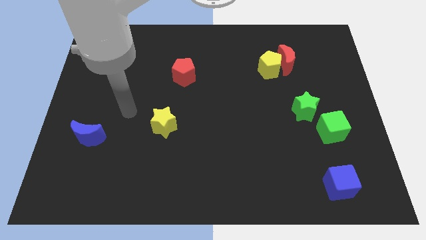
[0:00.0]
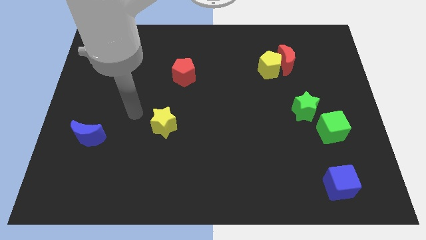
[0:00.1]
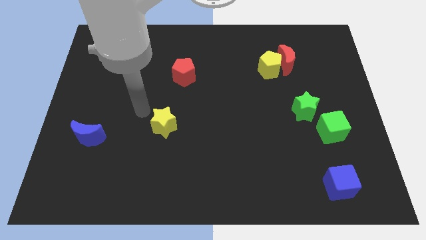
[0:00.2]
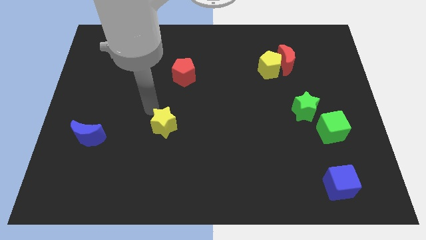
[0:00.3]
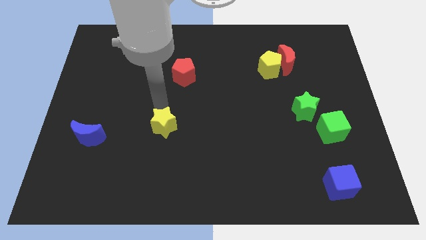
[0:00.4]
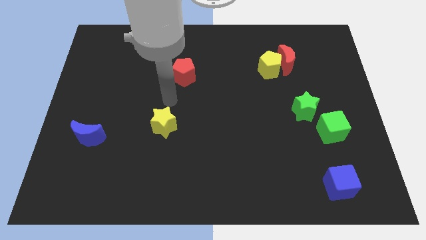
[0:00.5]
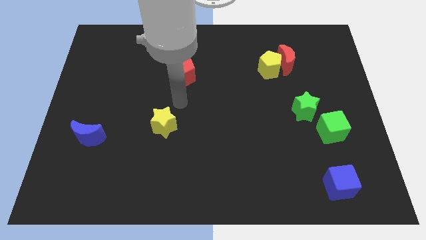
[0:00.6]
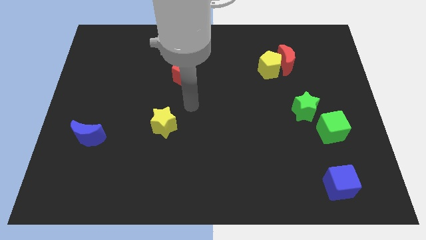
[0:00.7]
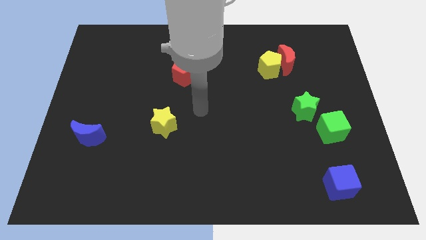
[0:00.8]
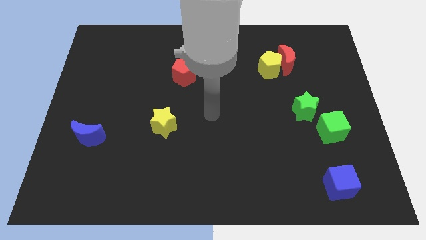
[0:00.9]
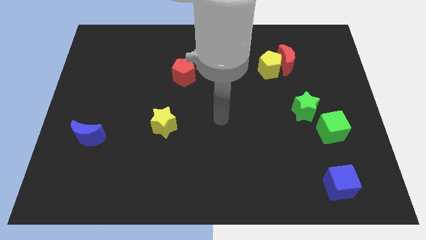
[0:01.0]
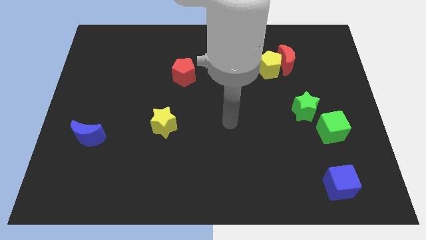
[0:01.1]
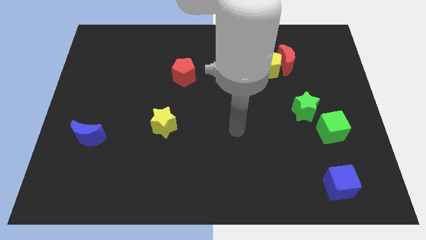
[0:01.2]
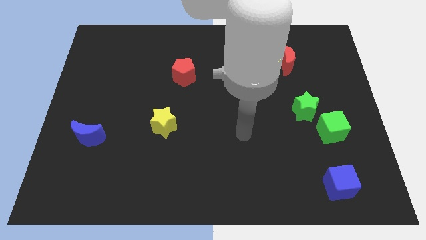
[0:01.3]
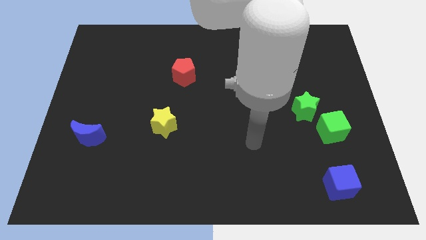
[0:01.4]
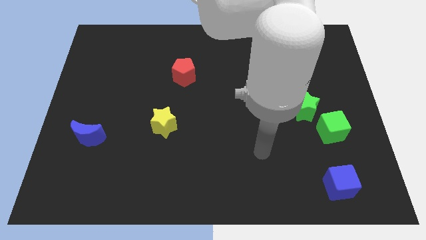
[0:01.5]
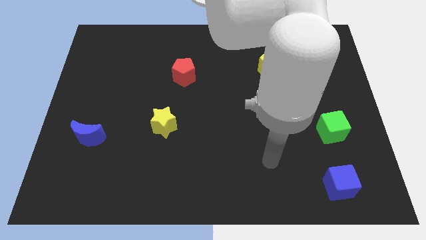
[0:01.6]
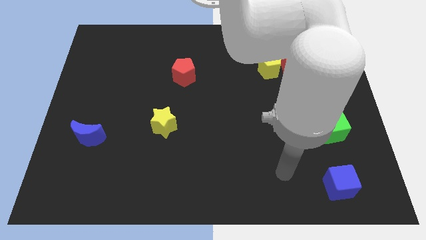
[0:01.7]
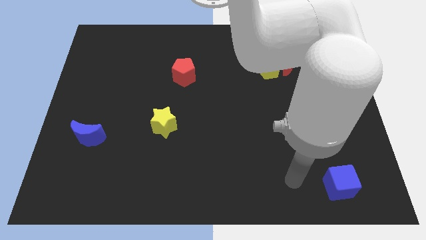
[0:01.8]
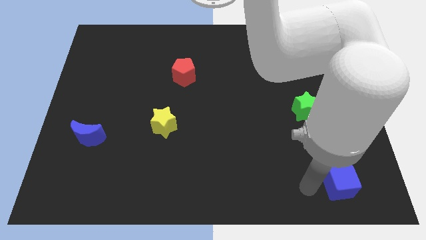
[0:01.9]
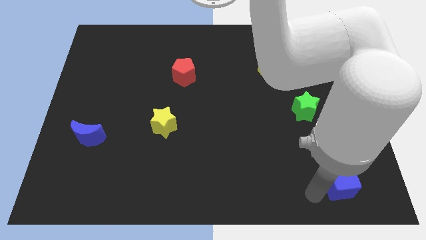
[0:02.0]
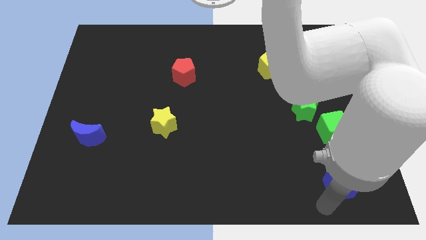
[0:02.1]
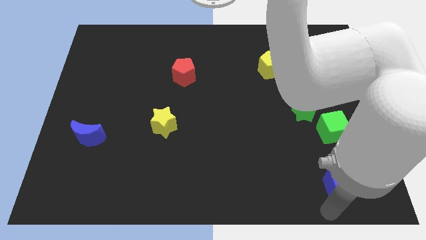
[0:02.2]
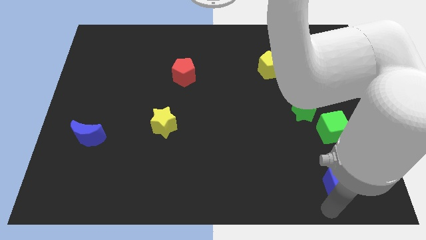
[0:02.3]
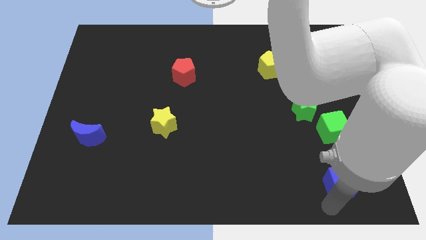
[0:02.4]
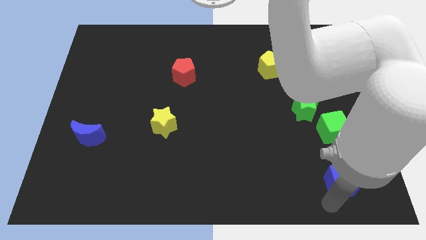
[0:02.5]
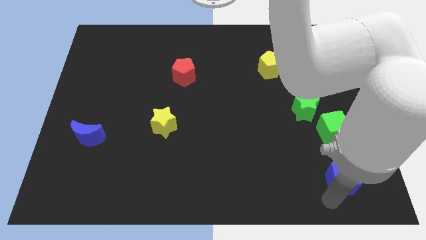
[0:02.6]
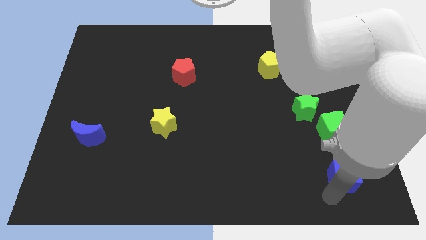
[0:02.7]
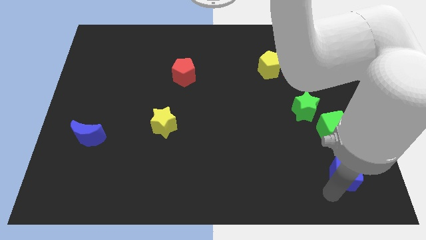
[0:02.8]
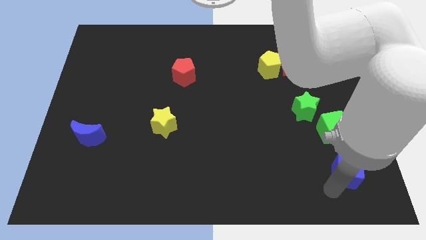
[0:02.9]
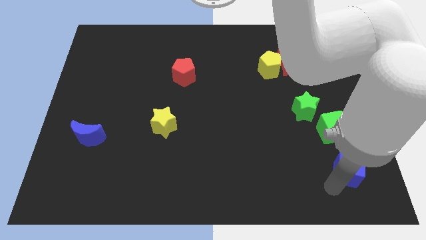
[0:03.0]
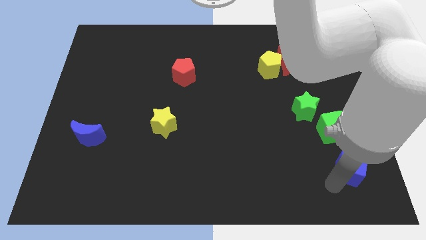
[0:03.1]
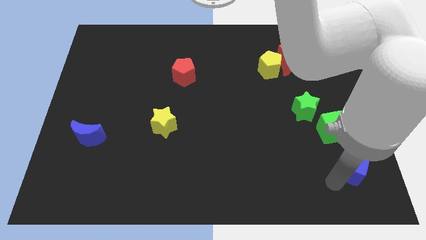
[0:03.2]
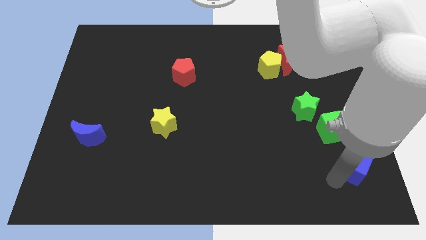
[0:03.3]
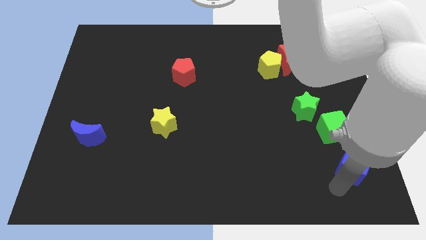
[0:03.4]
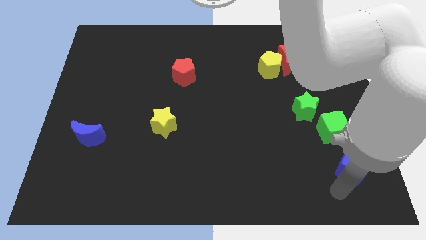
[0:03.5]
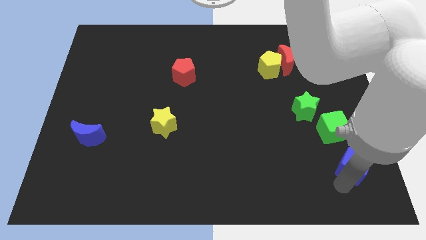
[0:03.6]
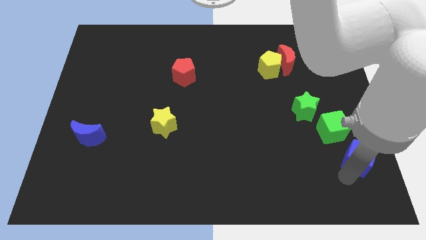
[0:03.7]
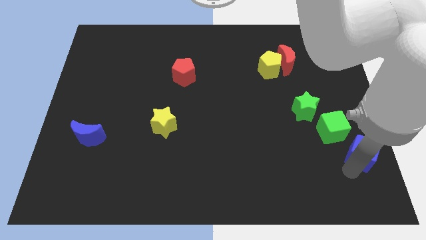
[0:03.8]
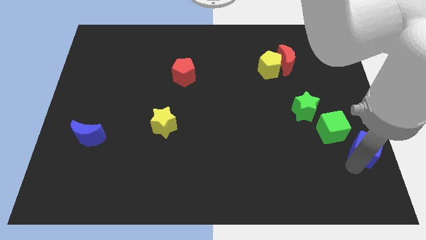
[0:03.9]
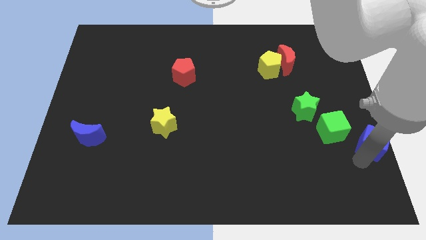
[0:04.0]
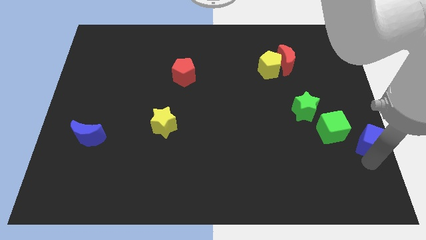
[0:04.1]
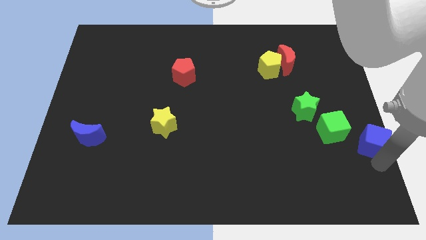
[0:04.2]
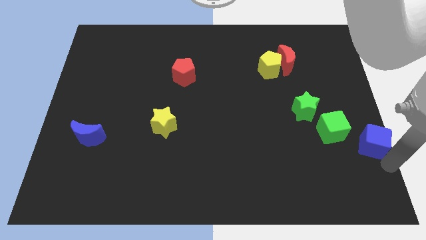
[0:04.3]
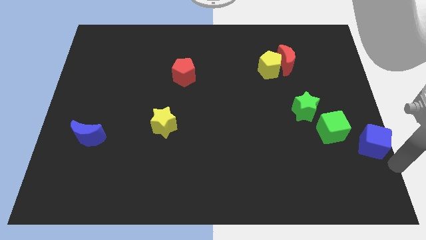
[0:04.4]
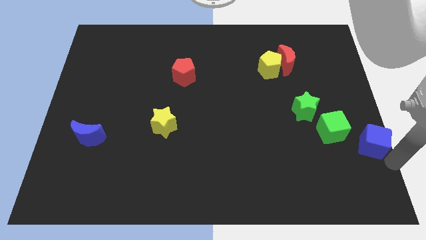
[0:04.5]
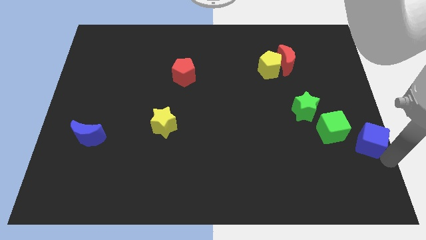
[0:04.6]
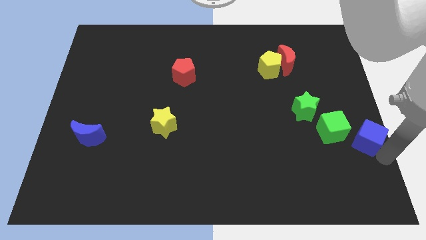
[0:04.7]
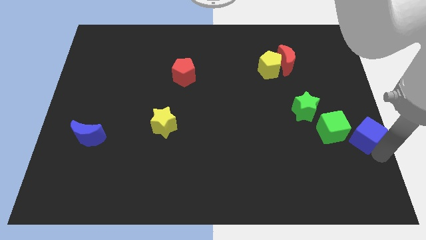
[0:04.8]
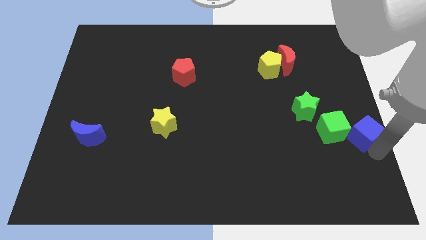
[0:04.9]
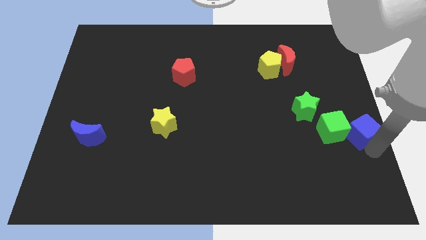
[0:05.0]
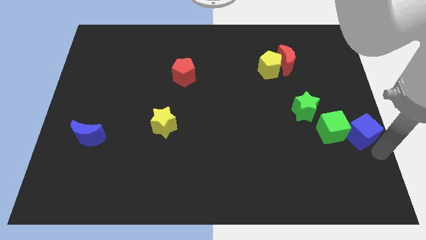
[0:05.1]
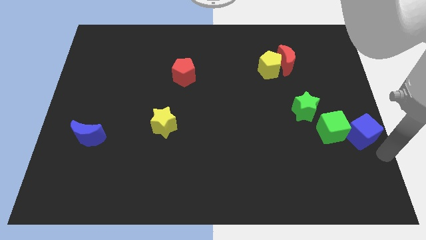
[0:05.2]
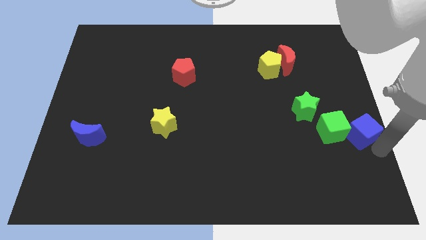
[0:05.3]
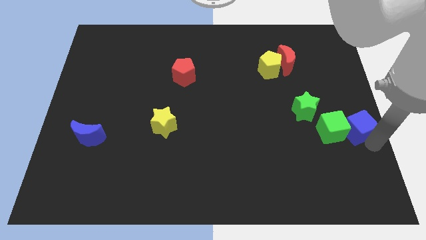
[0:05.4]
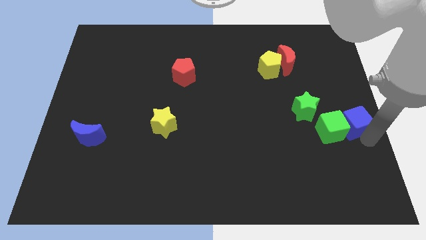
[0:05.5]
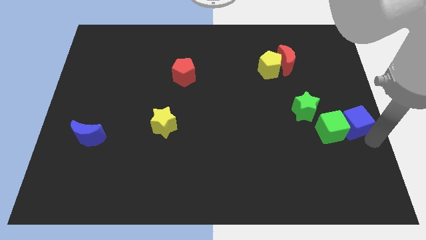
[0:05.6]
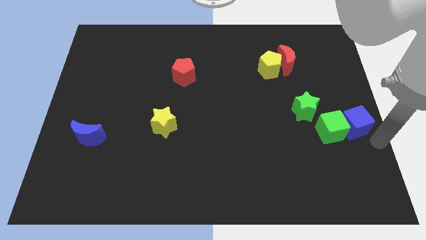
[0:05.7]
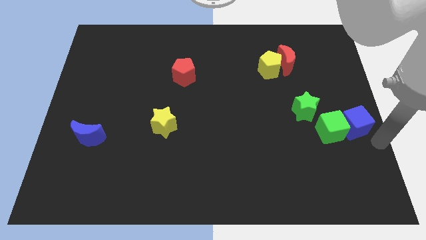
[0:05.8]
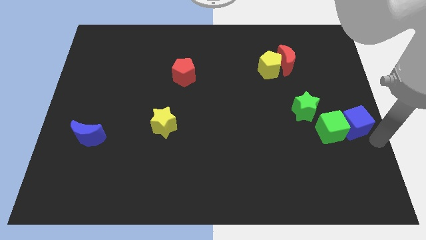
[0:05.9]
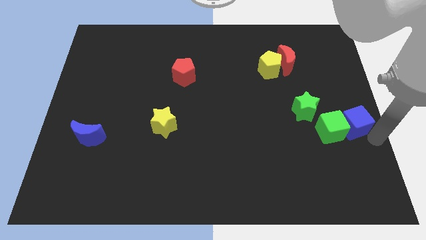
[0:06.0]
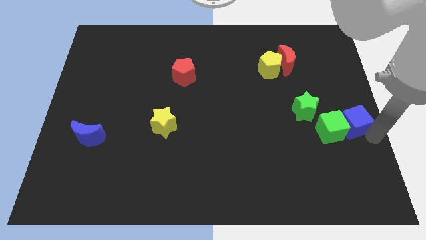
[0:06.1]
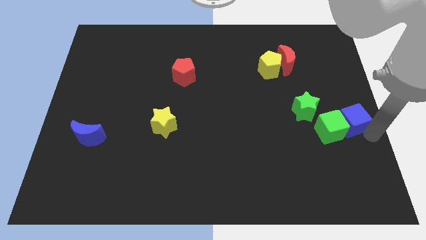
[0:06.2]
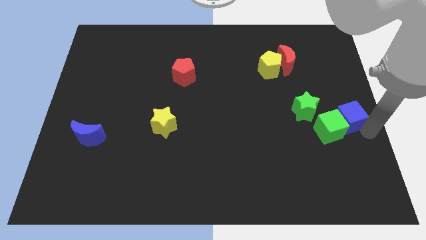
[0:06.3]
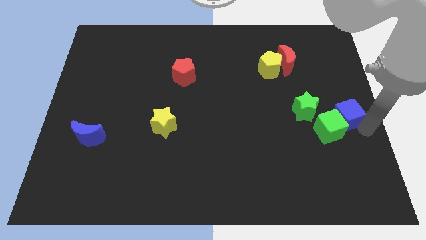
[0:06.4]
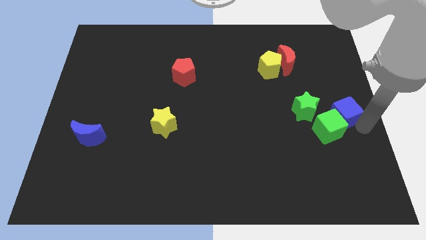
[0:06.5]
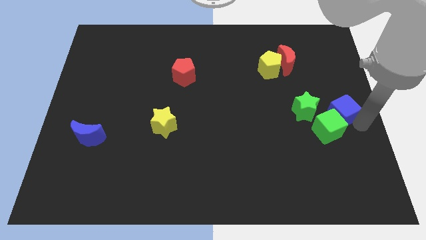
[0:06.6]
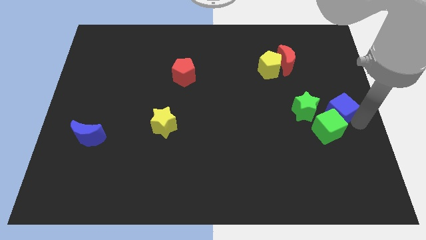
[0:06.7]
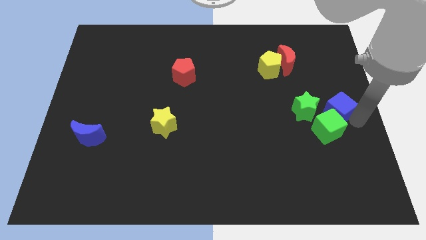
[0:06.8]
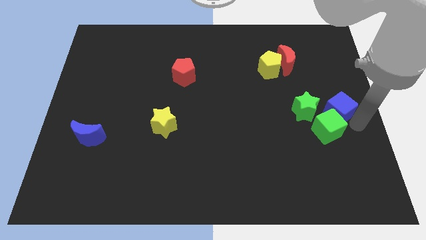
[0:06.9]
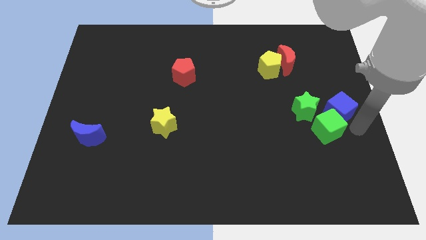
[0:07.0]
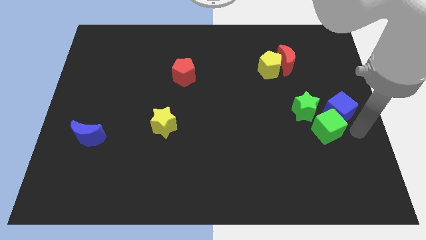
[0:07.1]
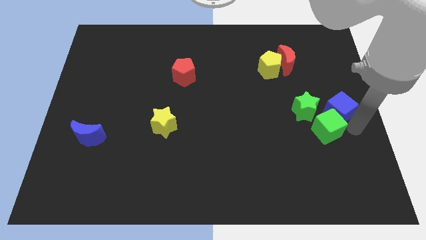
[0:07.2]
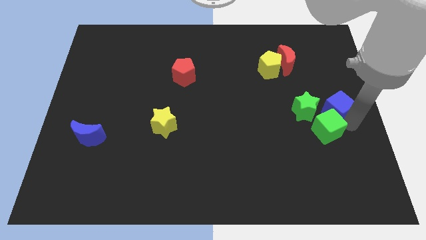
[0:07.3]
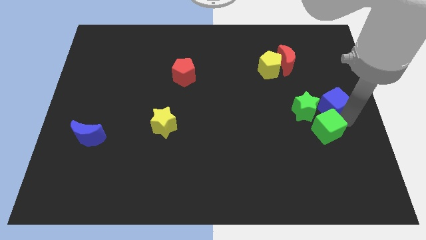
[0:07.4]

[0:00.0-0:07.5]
slide the blue cube upwards

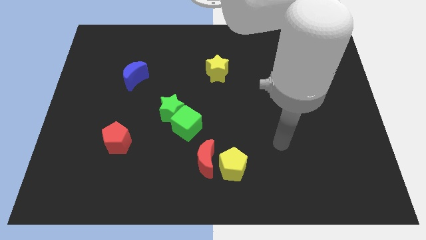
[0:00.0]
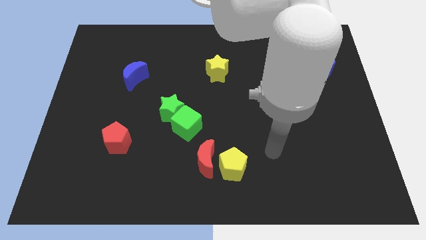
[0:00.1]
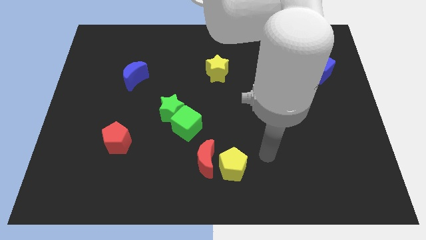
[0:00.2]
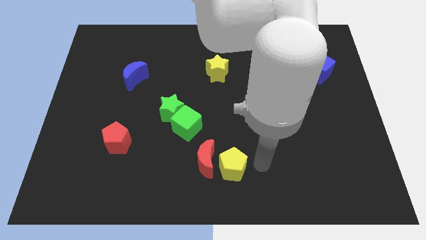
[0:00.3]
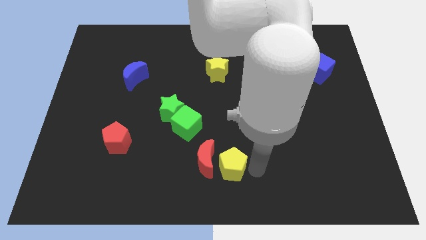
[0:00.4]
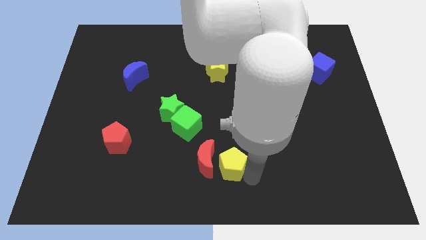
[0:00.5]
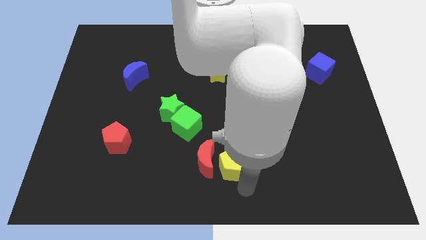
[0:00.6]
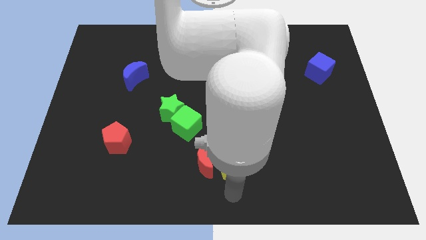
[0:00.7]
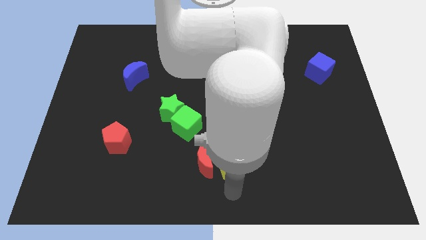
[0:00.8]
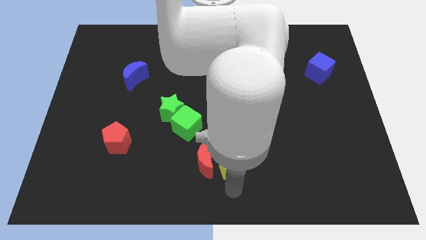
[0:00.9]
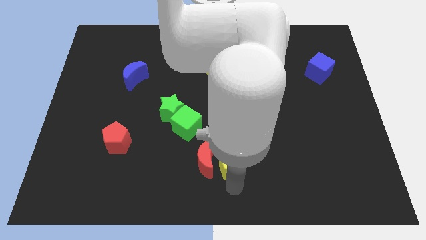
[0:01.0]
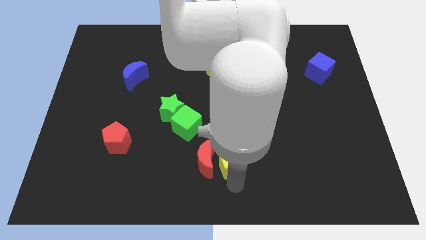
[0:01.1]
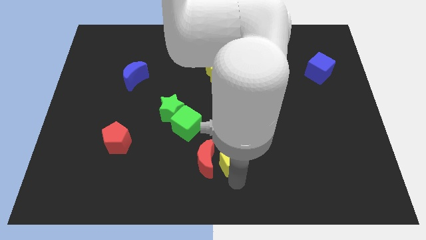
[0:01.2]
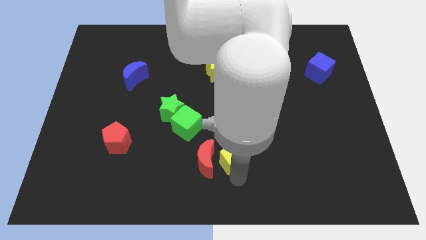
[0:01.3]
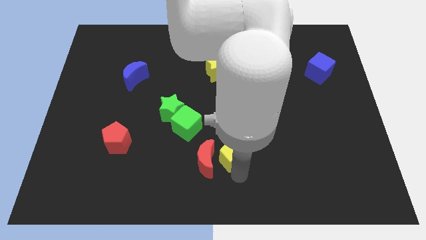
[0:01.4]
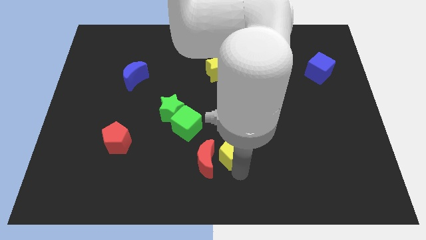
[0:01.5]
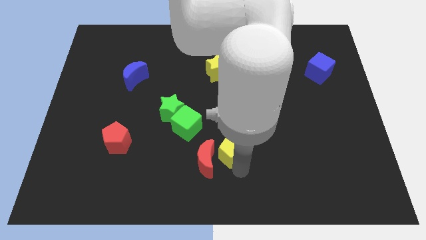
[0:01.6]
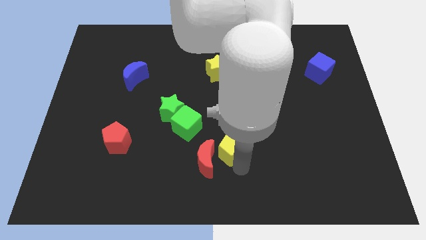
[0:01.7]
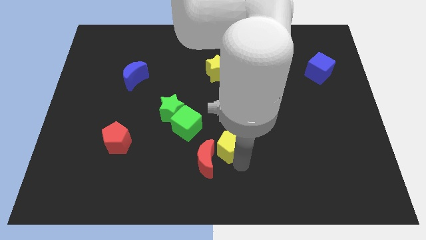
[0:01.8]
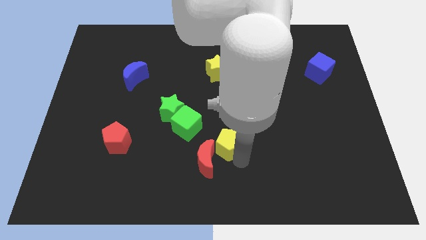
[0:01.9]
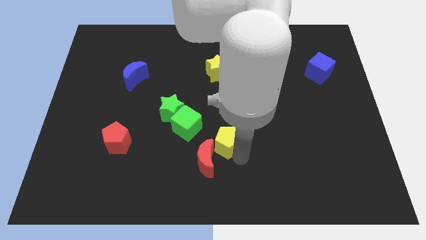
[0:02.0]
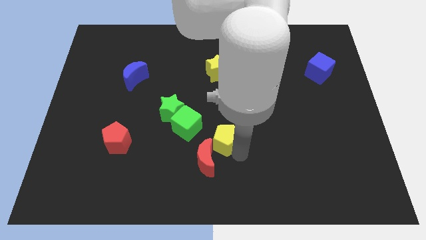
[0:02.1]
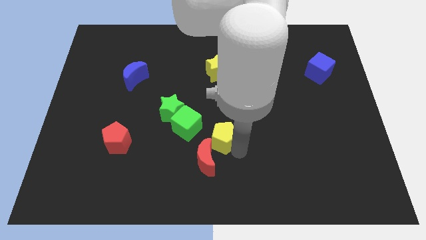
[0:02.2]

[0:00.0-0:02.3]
slide the yellow pentagon somewhat up
